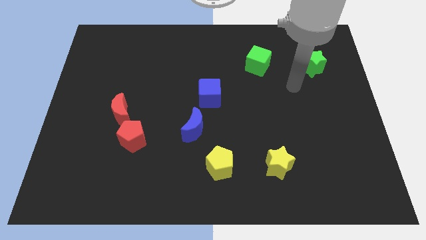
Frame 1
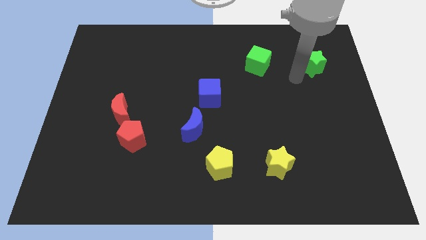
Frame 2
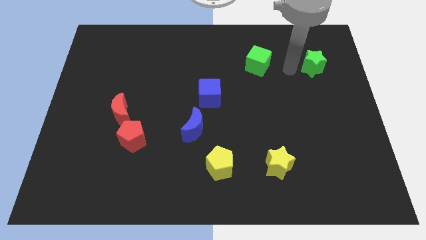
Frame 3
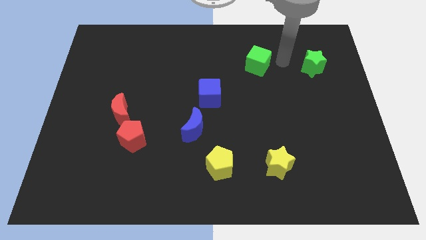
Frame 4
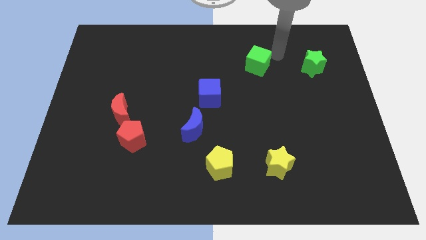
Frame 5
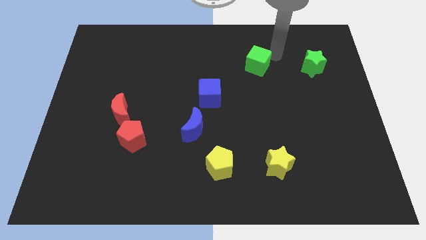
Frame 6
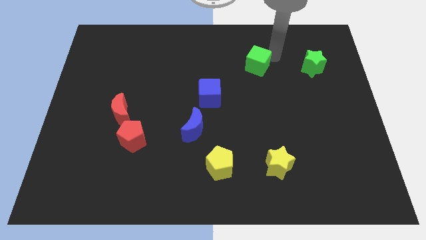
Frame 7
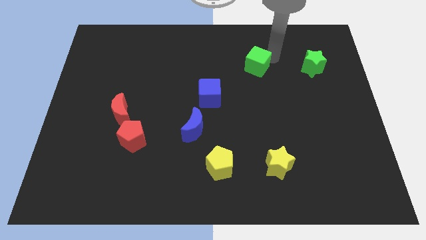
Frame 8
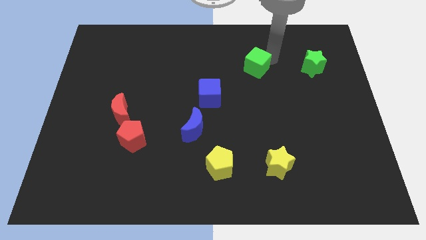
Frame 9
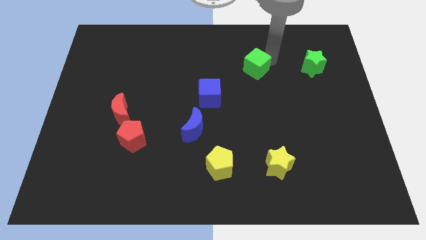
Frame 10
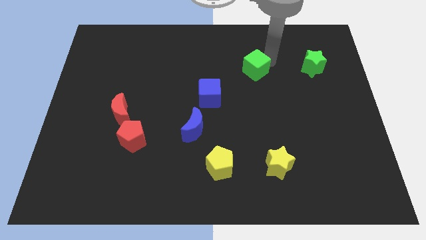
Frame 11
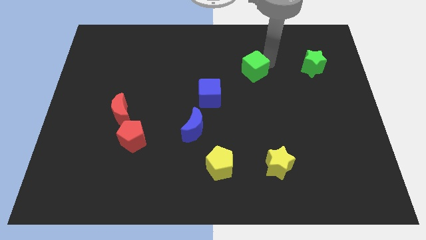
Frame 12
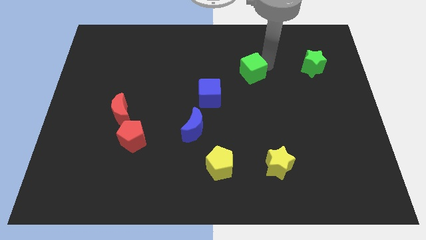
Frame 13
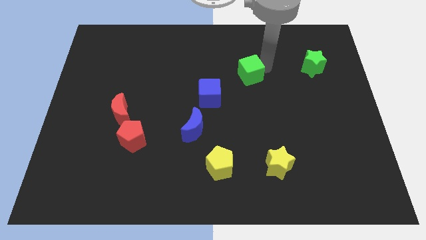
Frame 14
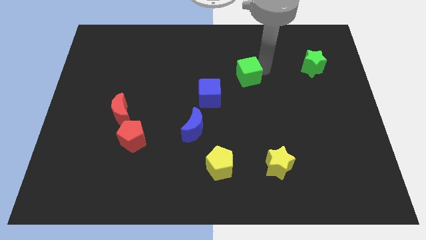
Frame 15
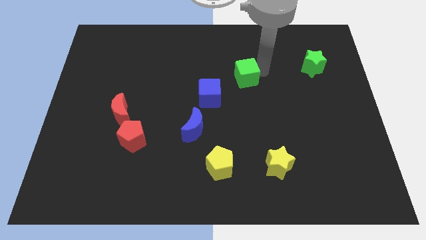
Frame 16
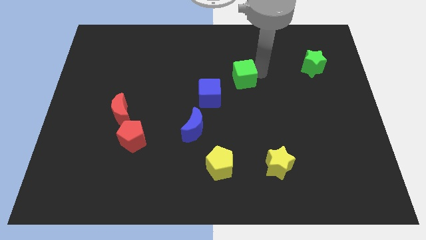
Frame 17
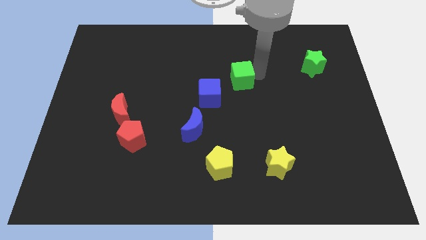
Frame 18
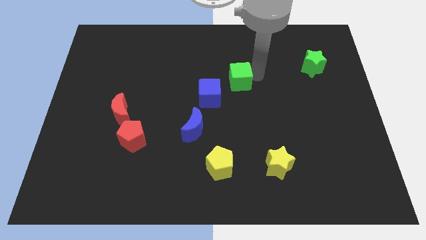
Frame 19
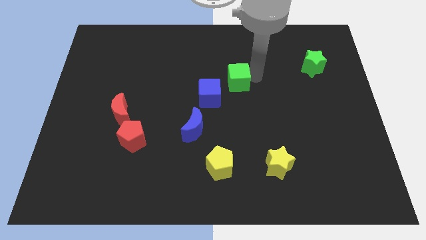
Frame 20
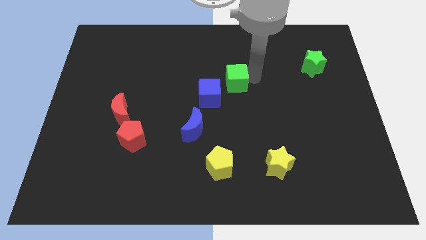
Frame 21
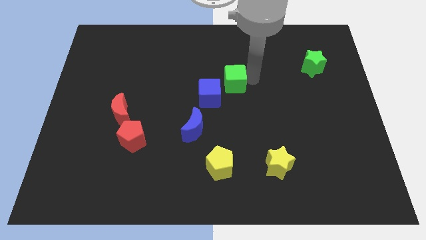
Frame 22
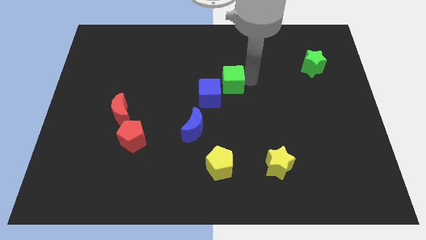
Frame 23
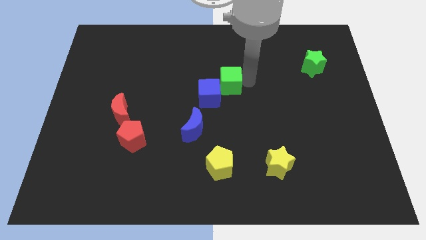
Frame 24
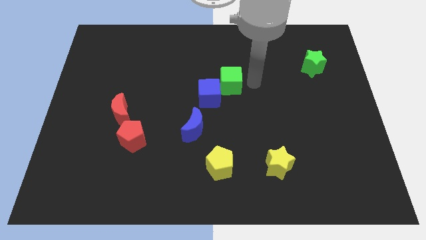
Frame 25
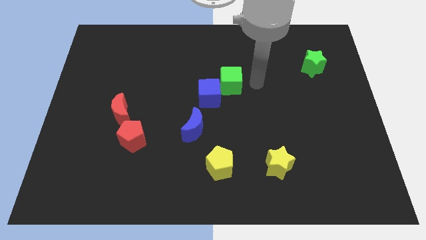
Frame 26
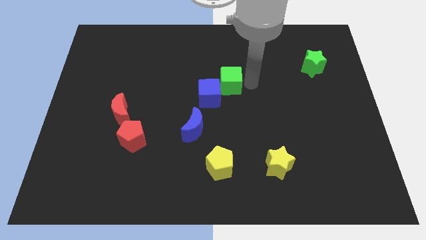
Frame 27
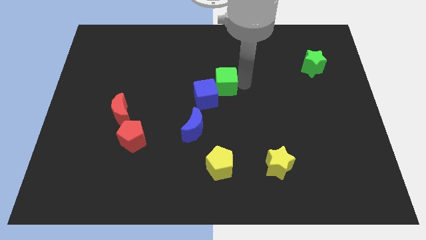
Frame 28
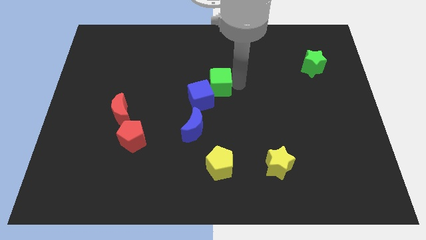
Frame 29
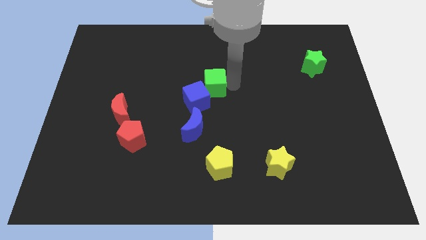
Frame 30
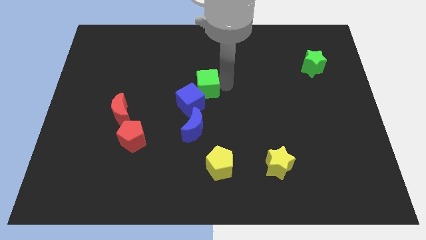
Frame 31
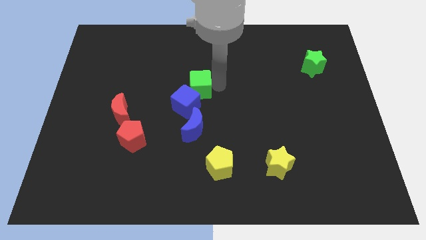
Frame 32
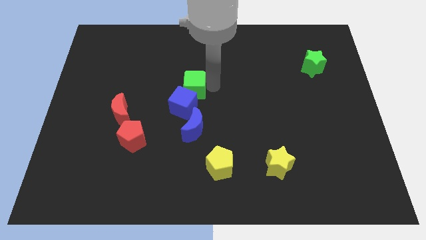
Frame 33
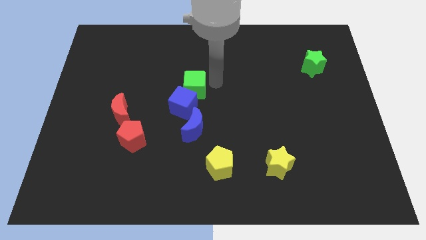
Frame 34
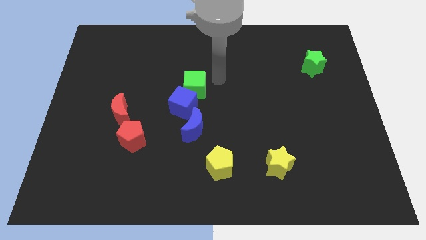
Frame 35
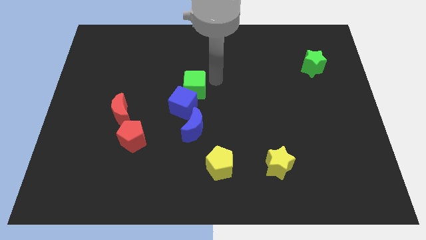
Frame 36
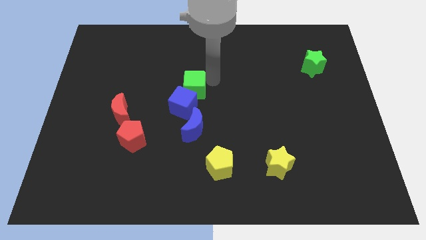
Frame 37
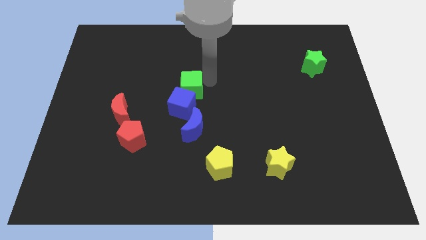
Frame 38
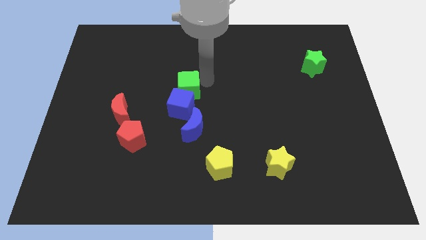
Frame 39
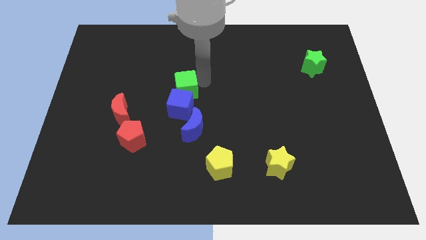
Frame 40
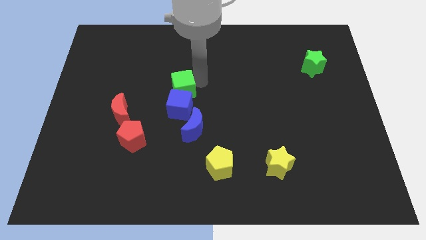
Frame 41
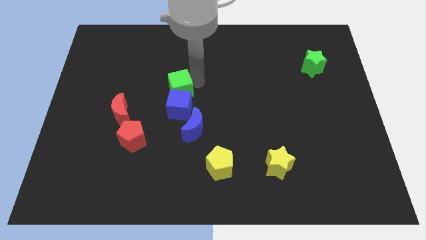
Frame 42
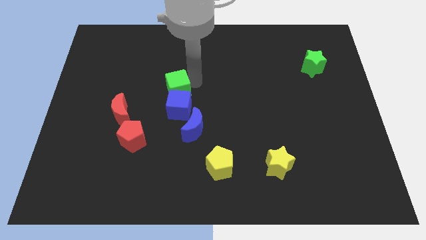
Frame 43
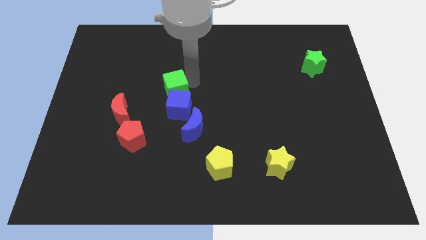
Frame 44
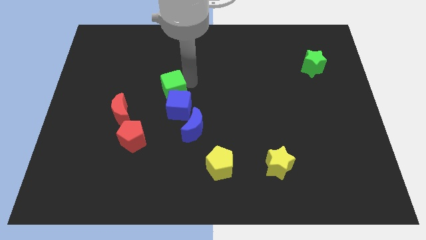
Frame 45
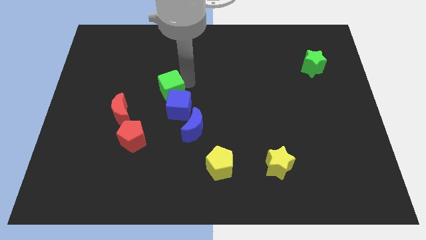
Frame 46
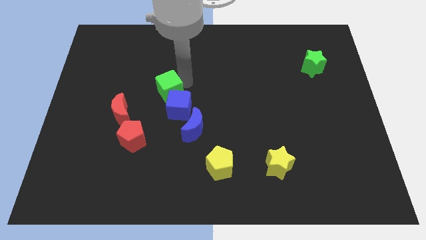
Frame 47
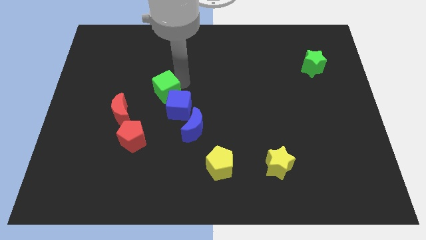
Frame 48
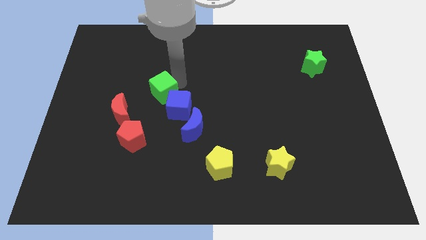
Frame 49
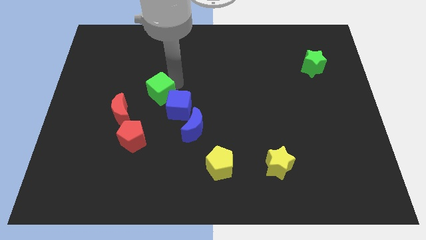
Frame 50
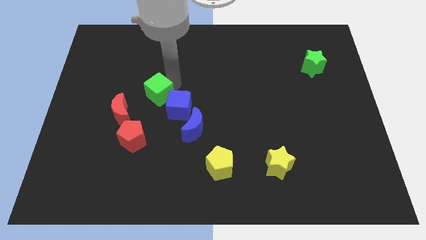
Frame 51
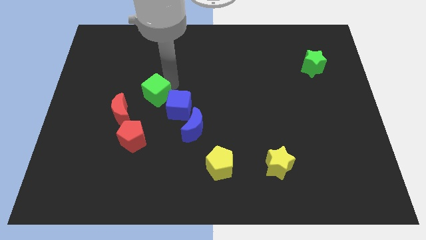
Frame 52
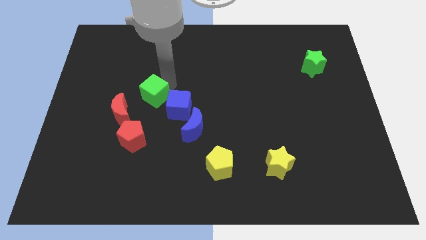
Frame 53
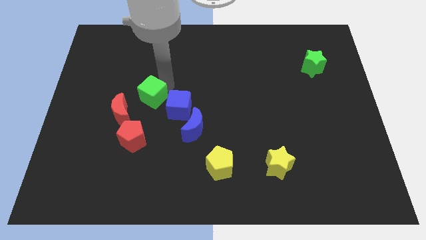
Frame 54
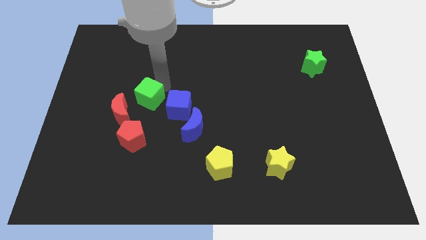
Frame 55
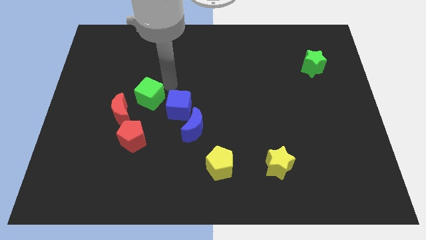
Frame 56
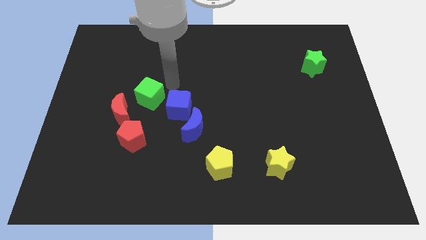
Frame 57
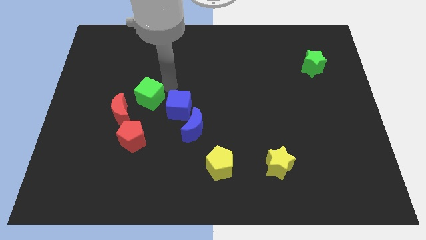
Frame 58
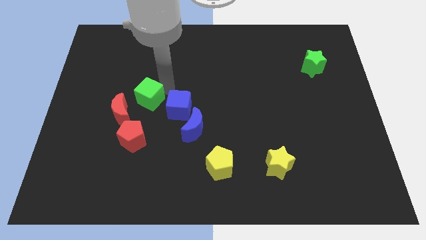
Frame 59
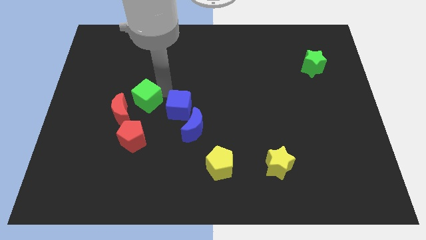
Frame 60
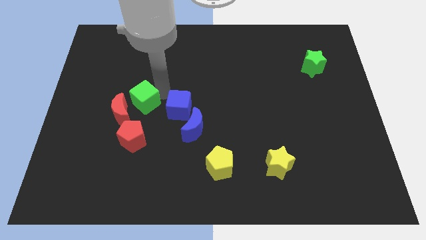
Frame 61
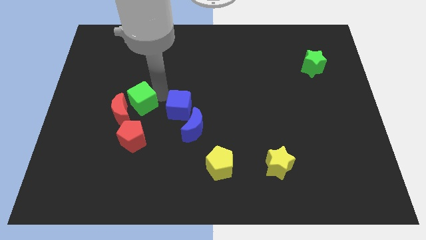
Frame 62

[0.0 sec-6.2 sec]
slide the green cube close to the red moon

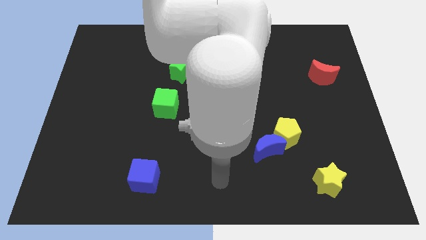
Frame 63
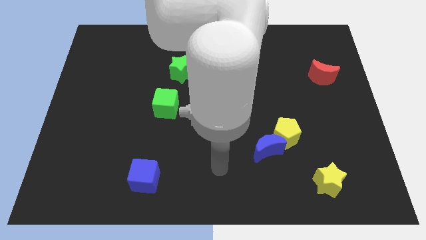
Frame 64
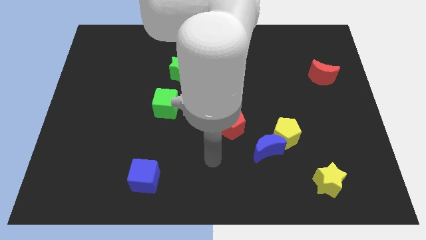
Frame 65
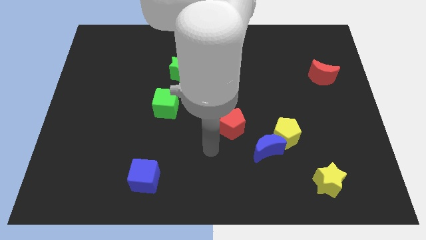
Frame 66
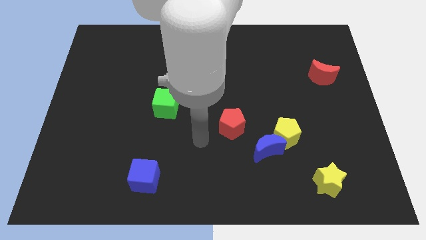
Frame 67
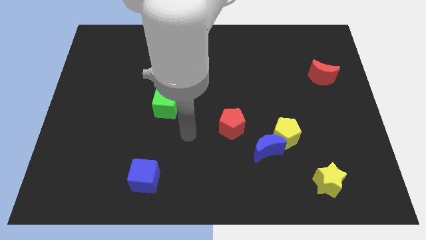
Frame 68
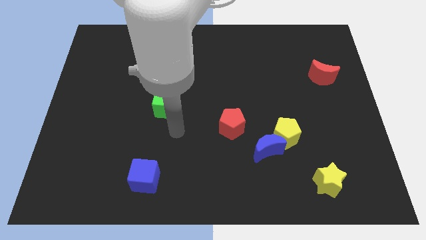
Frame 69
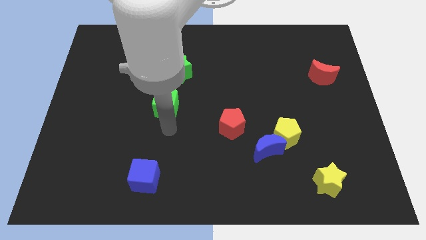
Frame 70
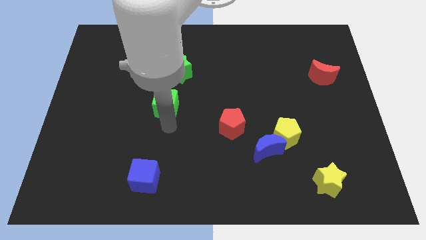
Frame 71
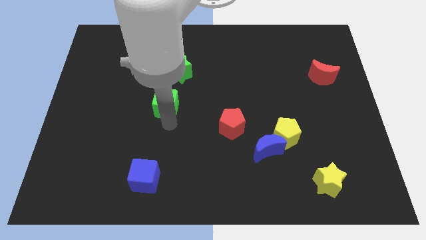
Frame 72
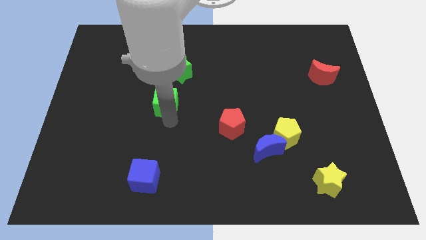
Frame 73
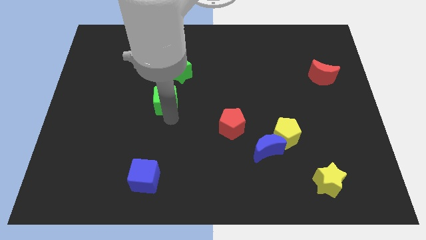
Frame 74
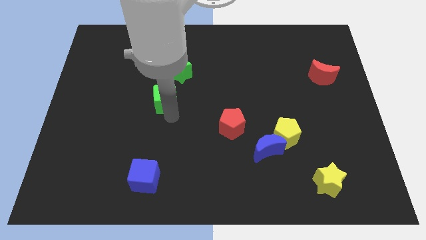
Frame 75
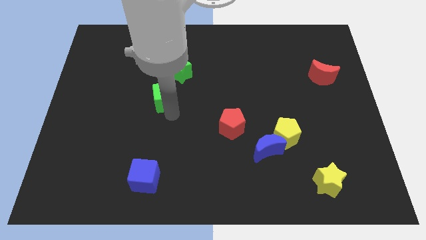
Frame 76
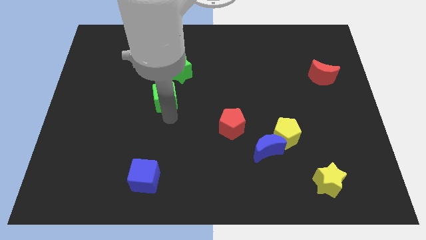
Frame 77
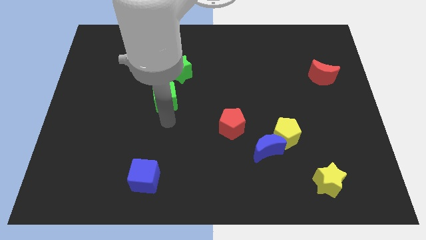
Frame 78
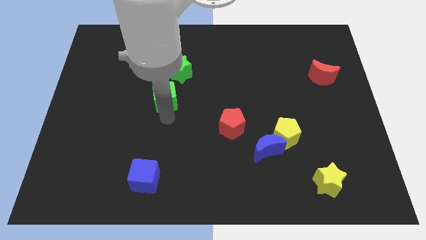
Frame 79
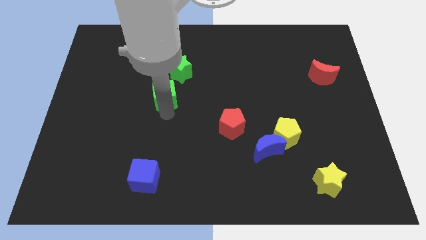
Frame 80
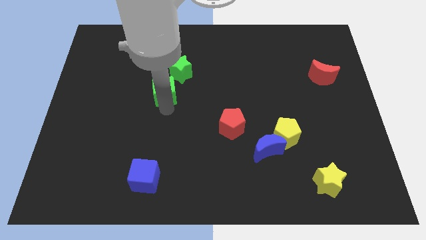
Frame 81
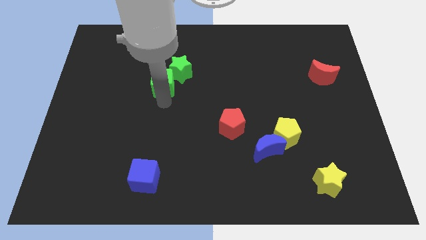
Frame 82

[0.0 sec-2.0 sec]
put the green cube towards the green star
